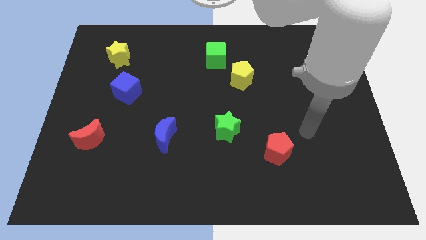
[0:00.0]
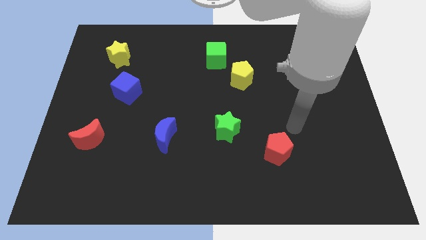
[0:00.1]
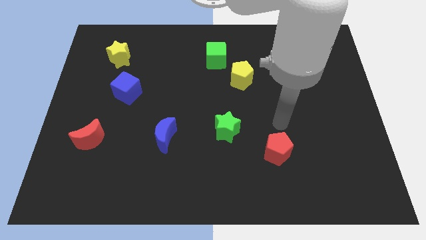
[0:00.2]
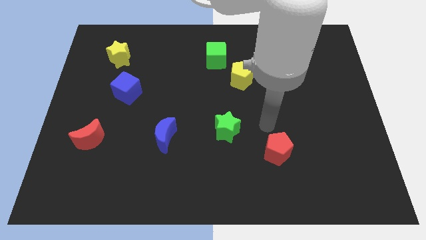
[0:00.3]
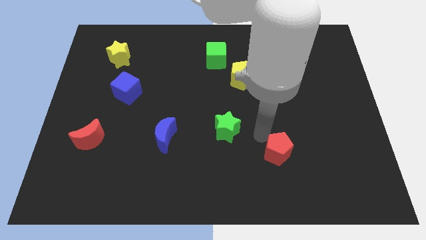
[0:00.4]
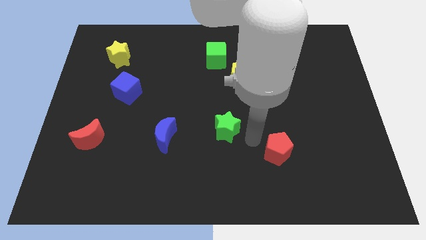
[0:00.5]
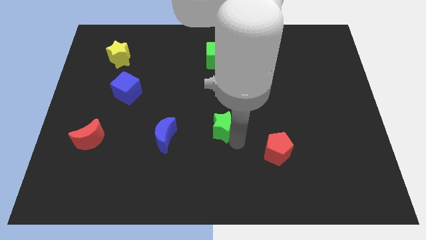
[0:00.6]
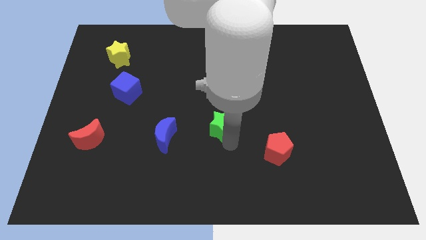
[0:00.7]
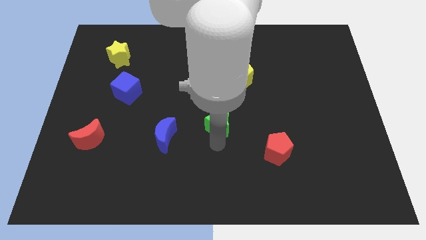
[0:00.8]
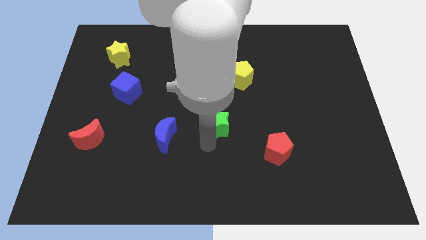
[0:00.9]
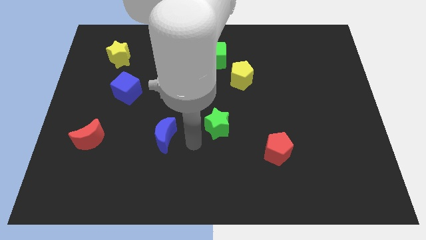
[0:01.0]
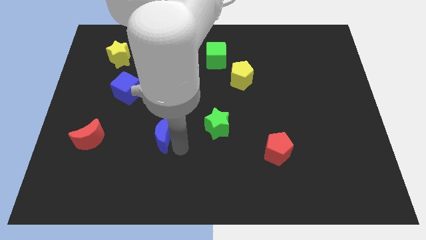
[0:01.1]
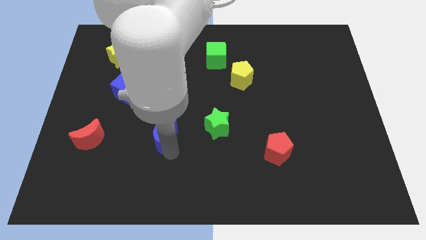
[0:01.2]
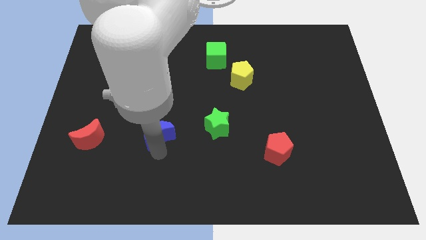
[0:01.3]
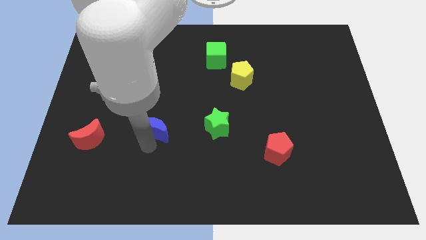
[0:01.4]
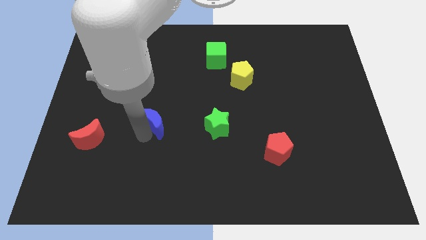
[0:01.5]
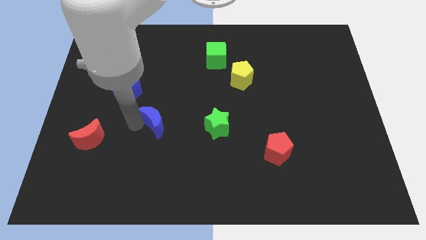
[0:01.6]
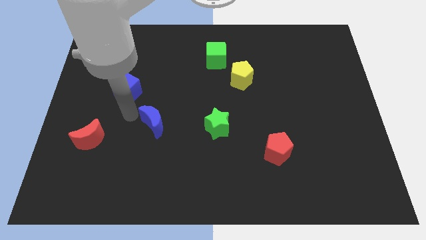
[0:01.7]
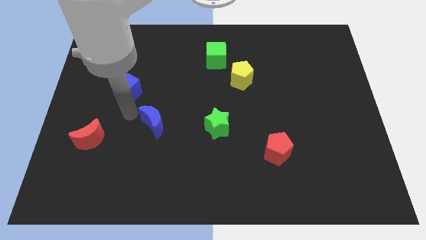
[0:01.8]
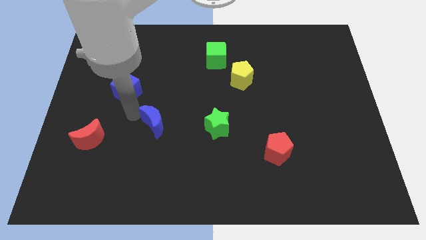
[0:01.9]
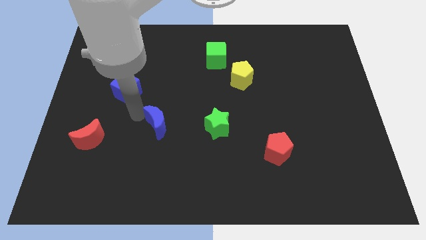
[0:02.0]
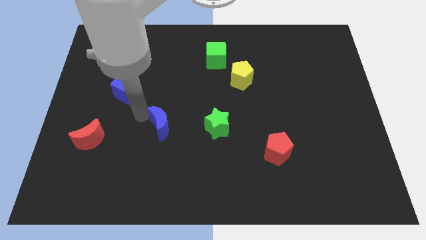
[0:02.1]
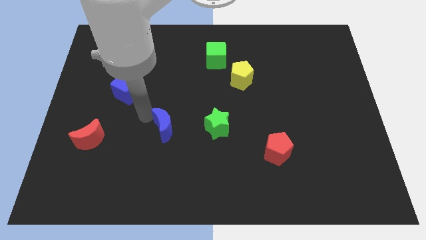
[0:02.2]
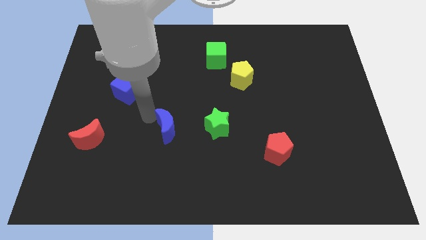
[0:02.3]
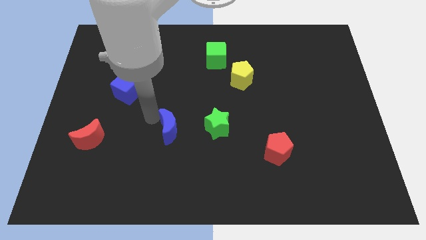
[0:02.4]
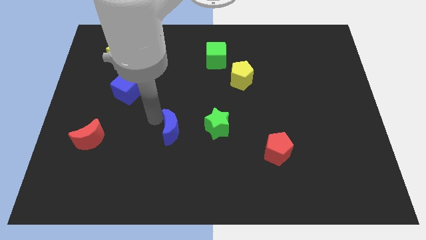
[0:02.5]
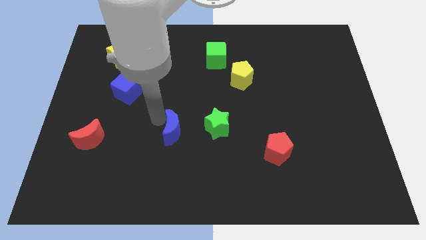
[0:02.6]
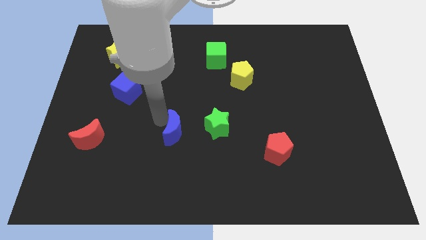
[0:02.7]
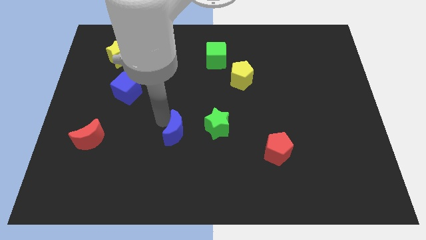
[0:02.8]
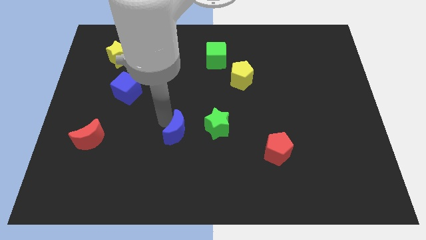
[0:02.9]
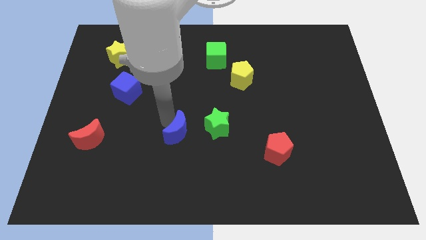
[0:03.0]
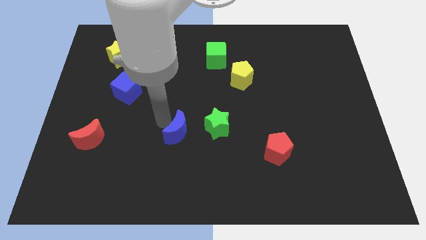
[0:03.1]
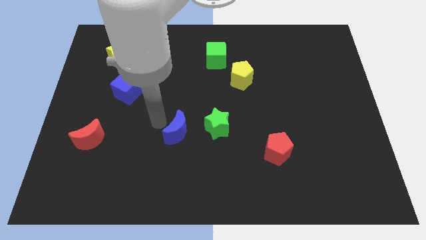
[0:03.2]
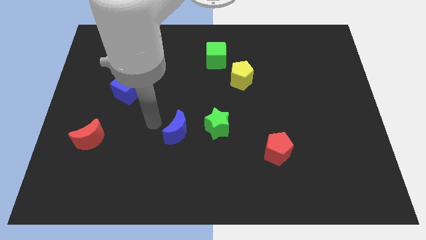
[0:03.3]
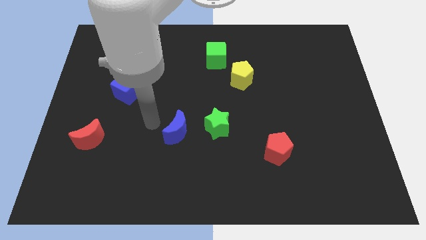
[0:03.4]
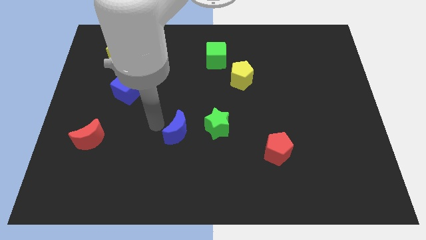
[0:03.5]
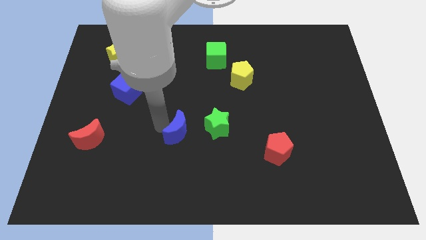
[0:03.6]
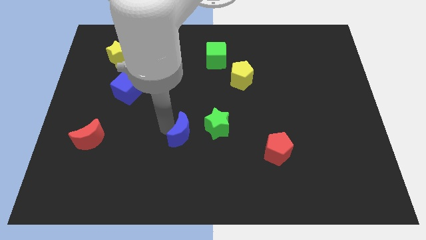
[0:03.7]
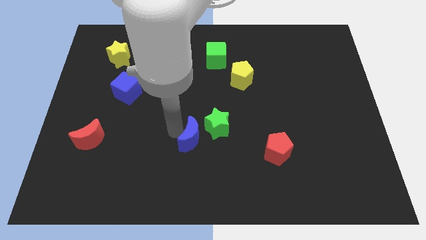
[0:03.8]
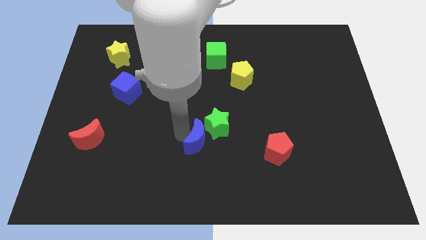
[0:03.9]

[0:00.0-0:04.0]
move the blue moon somewhat right

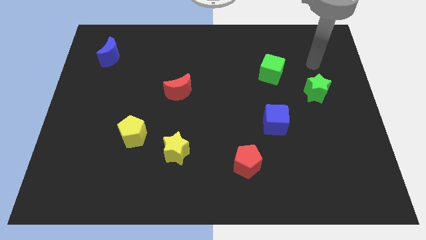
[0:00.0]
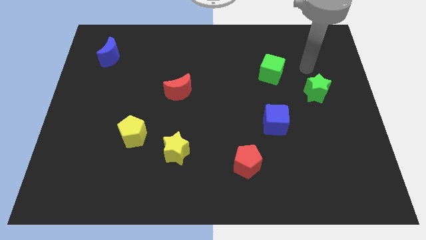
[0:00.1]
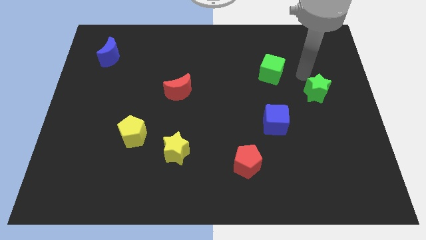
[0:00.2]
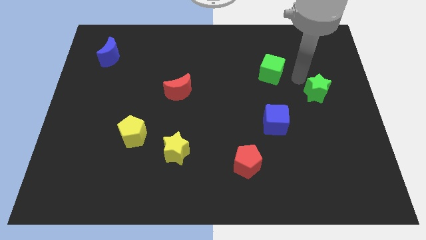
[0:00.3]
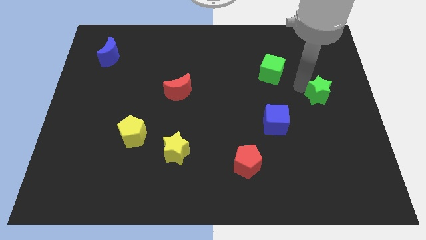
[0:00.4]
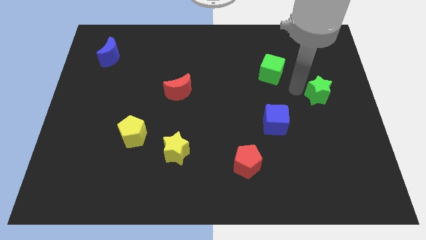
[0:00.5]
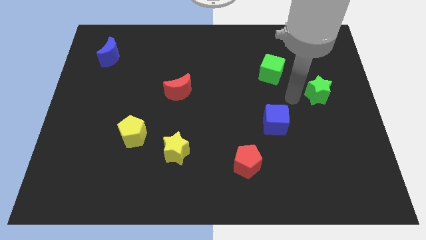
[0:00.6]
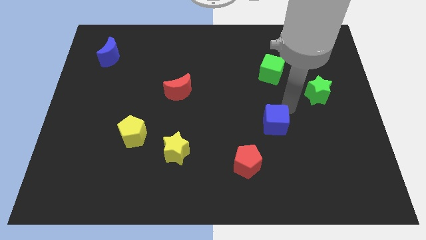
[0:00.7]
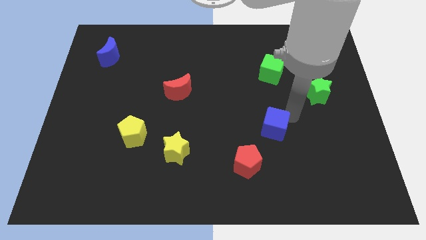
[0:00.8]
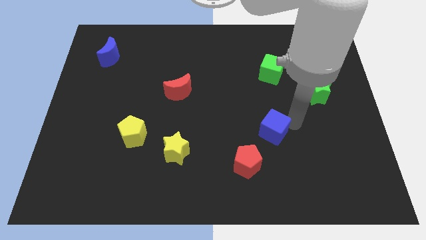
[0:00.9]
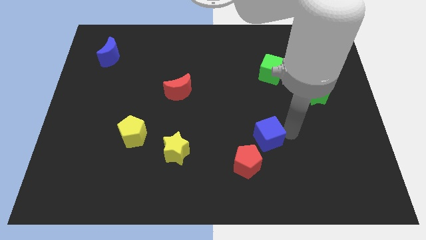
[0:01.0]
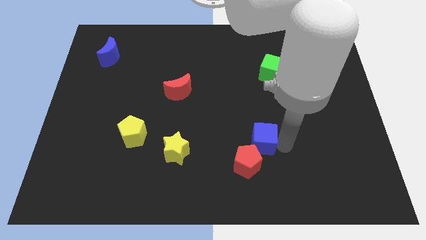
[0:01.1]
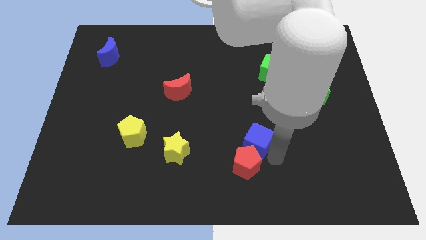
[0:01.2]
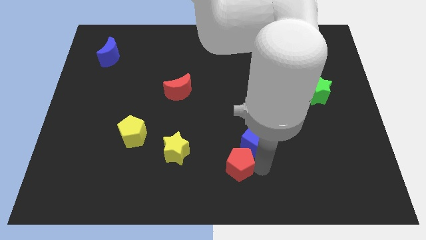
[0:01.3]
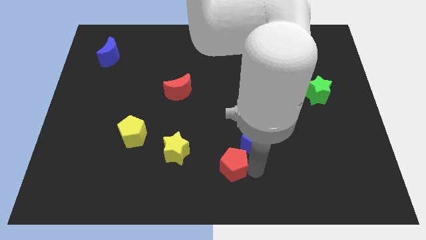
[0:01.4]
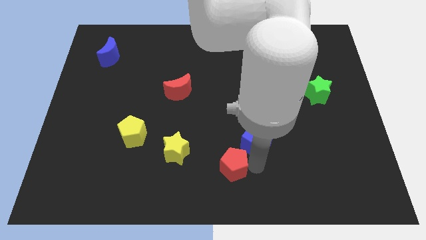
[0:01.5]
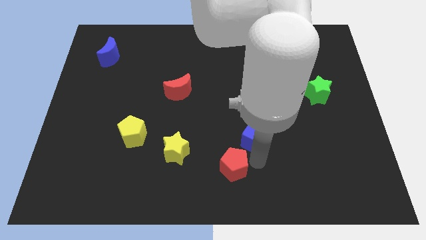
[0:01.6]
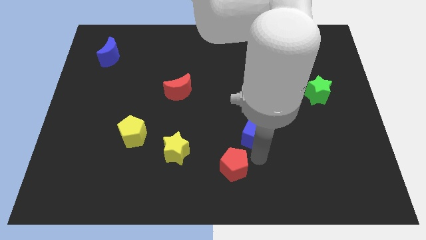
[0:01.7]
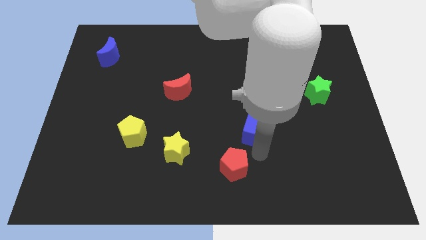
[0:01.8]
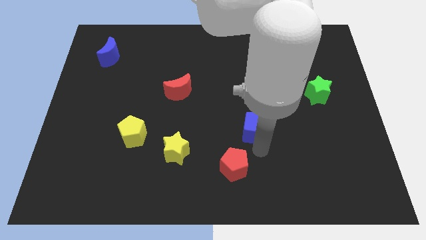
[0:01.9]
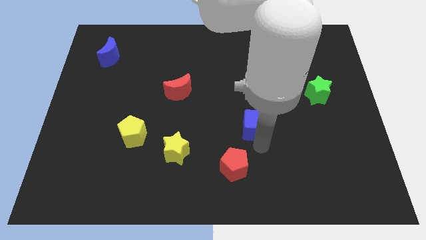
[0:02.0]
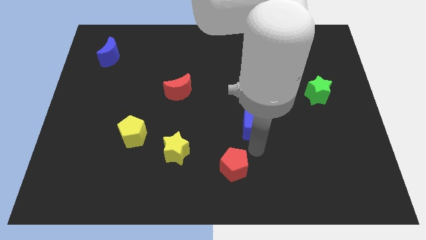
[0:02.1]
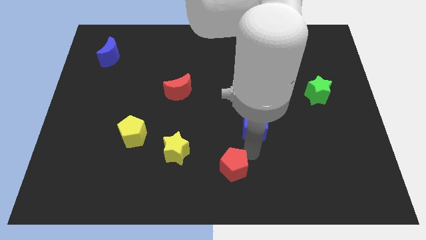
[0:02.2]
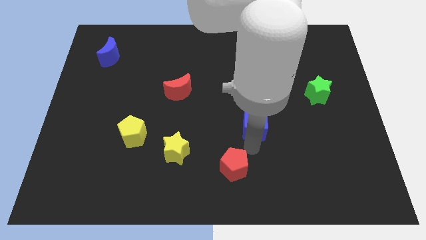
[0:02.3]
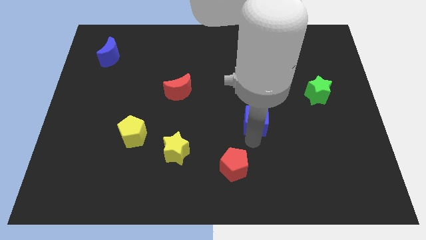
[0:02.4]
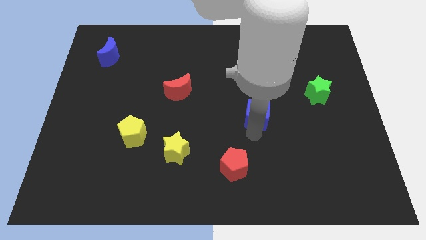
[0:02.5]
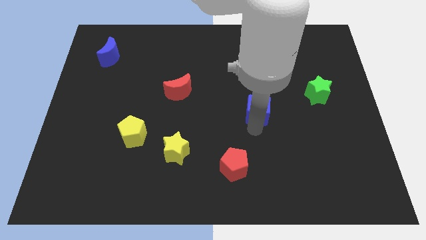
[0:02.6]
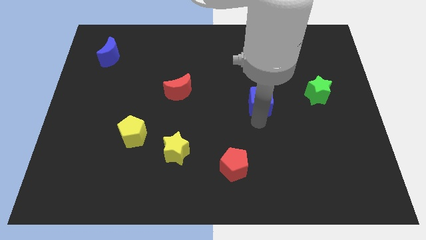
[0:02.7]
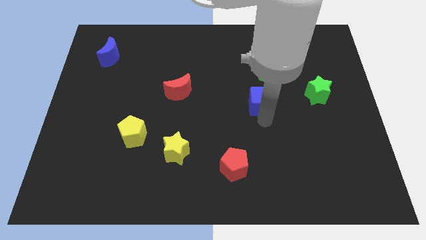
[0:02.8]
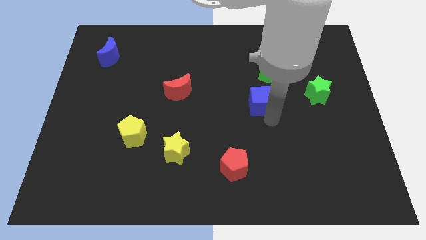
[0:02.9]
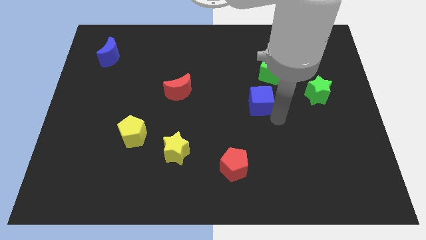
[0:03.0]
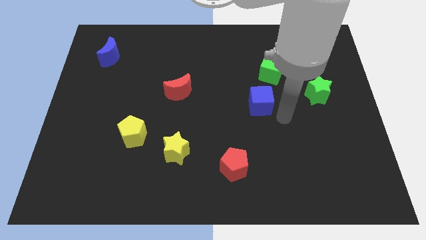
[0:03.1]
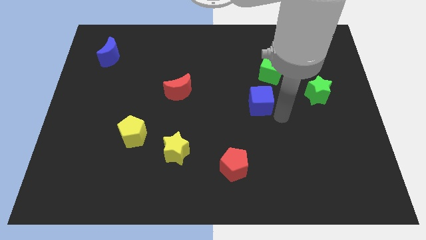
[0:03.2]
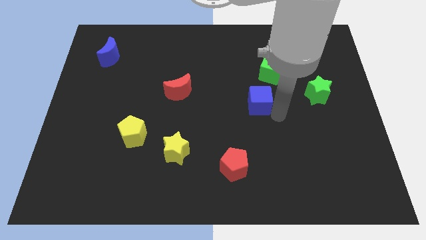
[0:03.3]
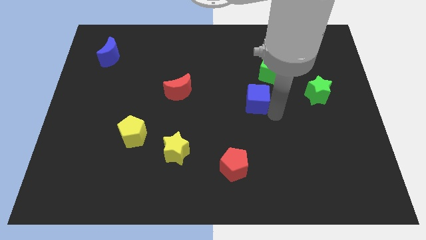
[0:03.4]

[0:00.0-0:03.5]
slide the blue cube diagonally upwards and to the left a little bit

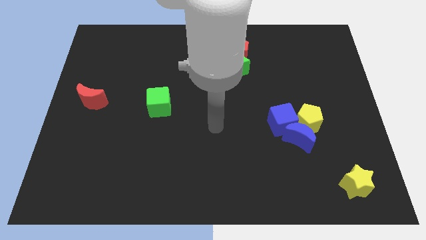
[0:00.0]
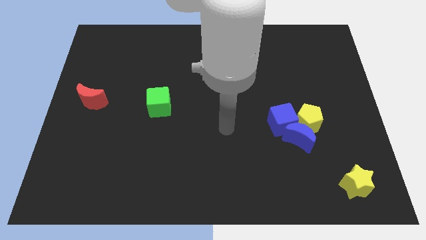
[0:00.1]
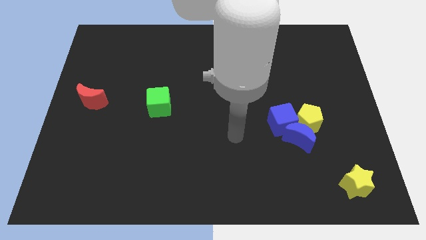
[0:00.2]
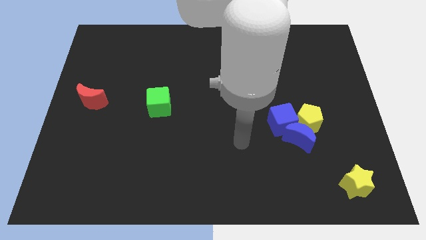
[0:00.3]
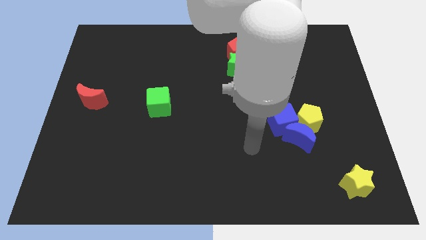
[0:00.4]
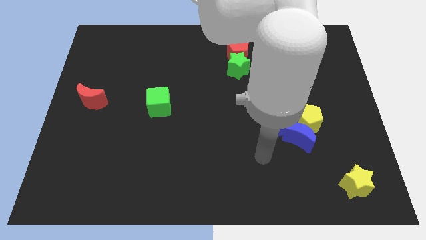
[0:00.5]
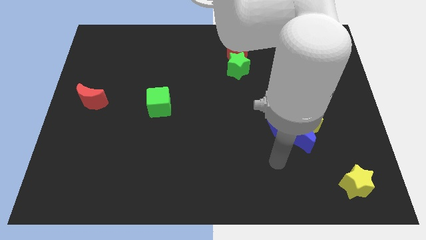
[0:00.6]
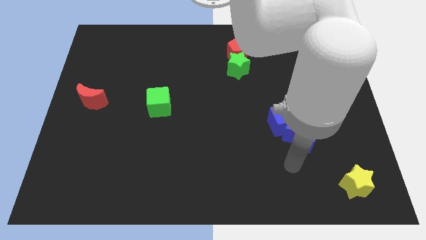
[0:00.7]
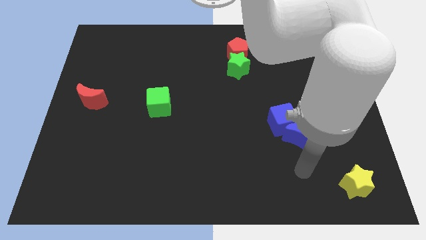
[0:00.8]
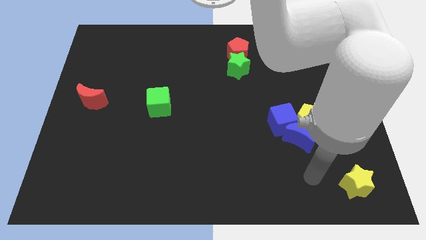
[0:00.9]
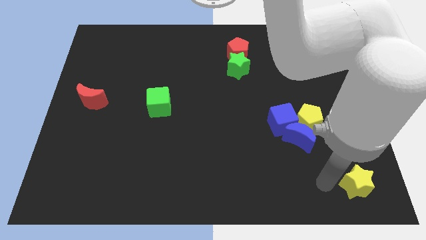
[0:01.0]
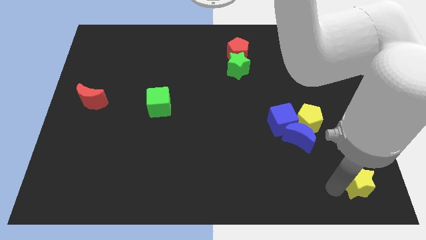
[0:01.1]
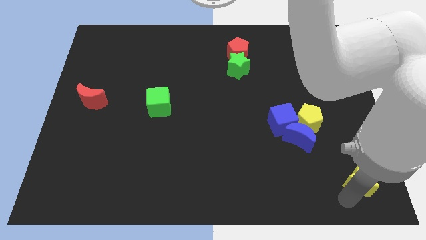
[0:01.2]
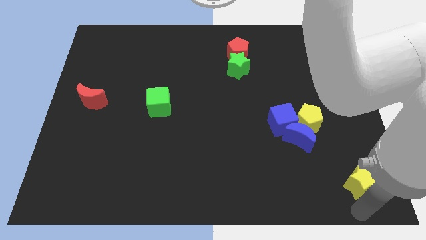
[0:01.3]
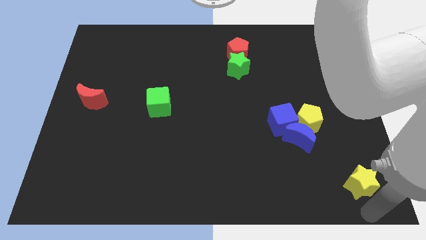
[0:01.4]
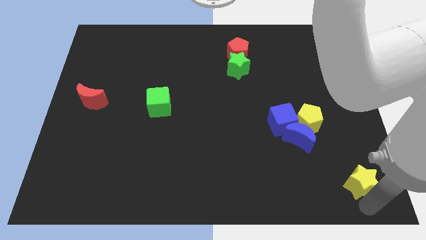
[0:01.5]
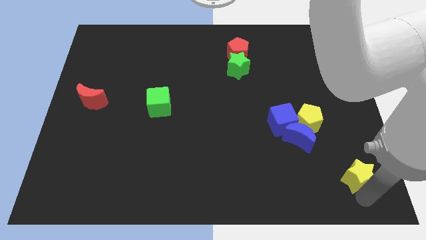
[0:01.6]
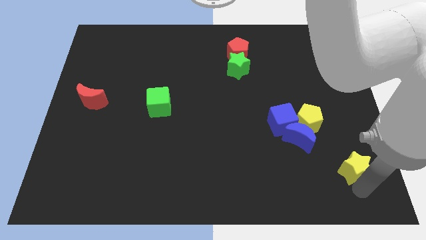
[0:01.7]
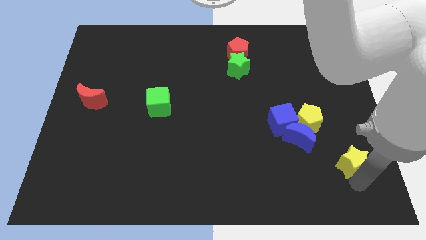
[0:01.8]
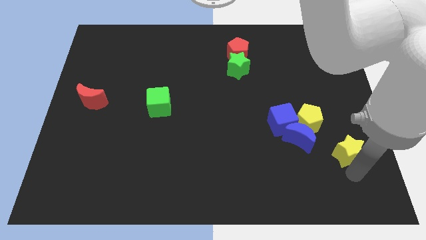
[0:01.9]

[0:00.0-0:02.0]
push the yellow star upwards slightly
